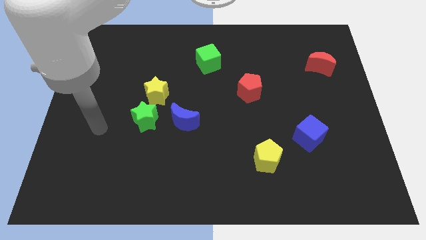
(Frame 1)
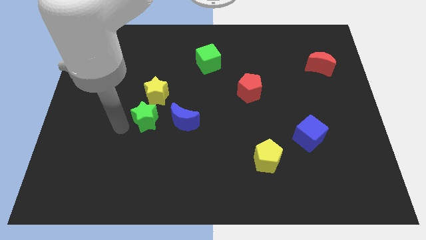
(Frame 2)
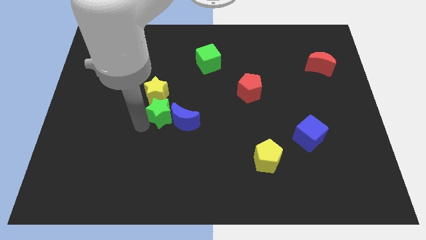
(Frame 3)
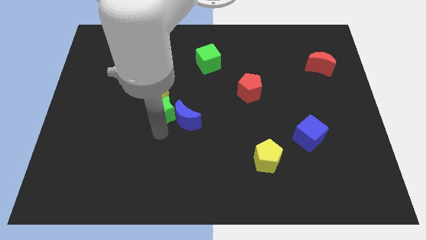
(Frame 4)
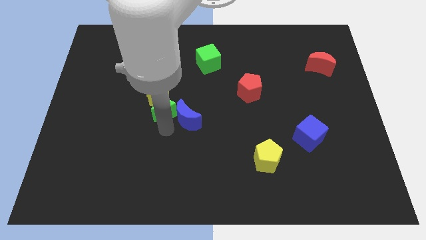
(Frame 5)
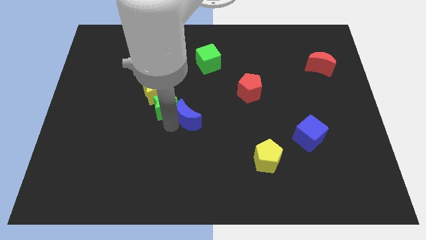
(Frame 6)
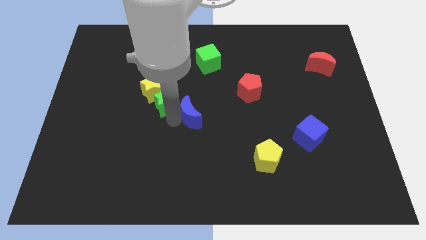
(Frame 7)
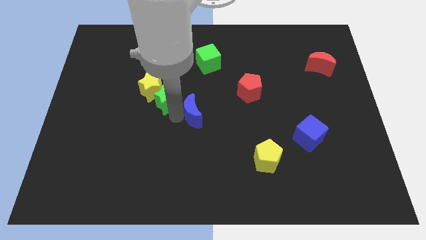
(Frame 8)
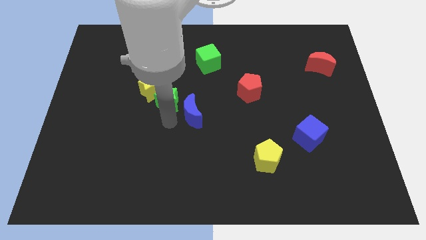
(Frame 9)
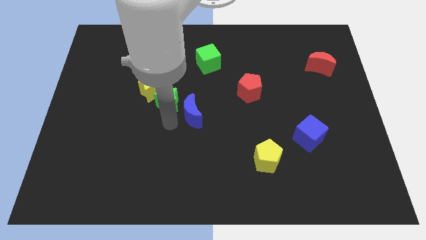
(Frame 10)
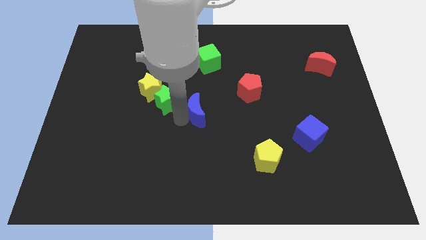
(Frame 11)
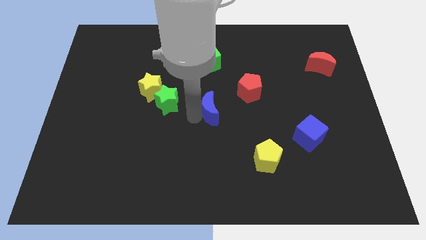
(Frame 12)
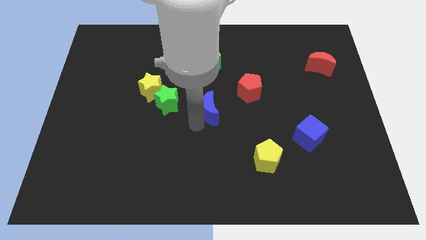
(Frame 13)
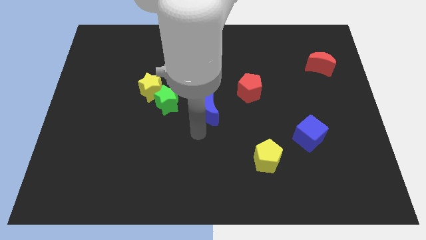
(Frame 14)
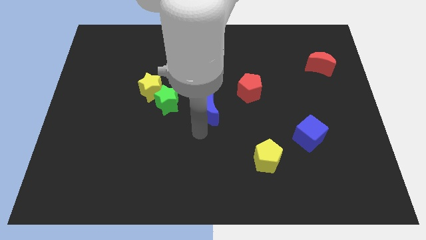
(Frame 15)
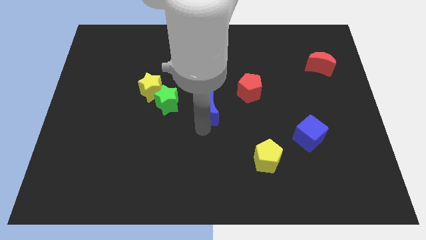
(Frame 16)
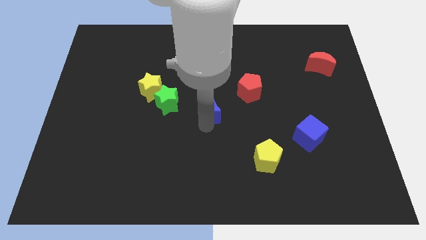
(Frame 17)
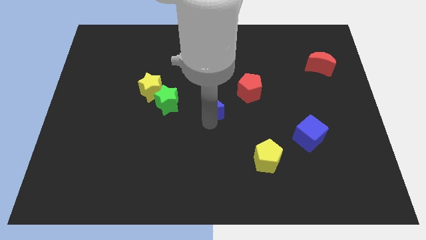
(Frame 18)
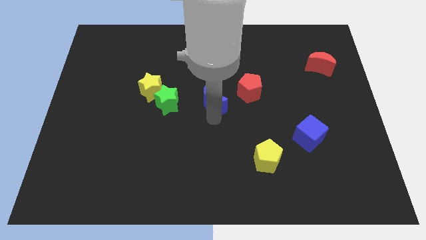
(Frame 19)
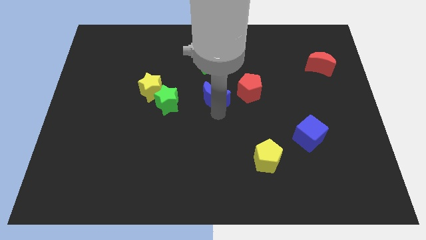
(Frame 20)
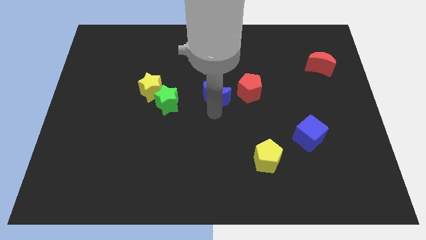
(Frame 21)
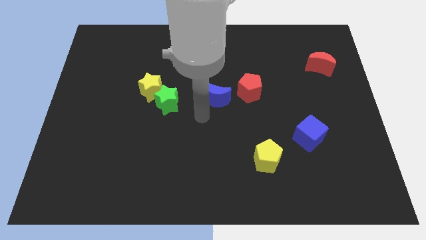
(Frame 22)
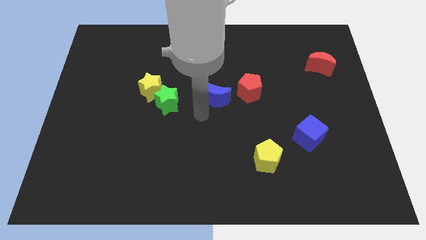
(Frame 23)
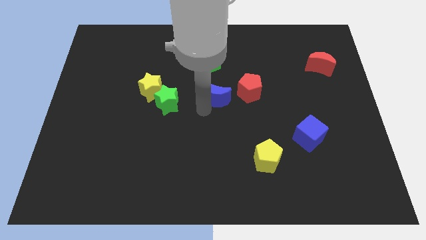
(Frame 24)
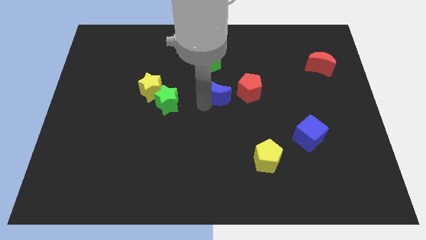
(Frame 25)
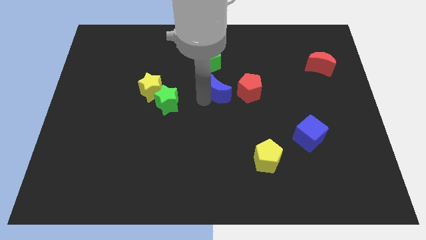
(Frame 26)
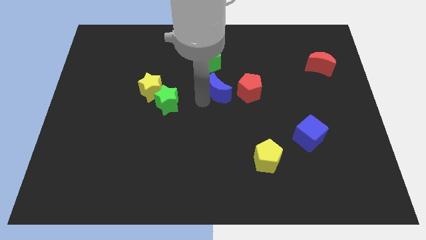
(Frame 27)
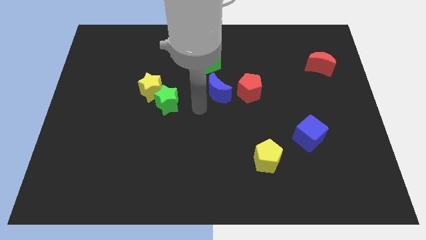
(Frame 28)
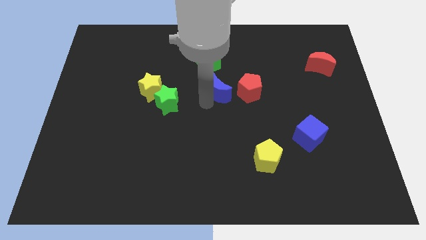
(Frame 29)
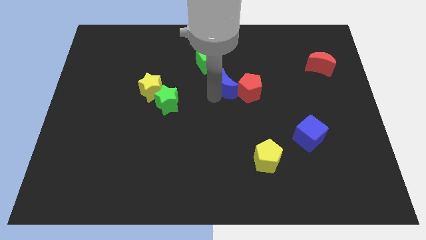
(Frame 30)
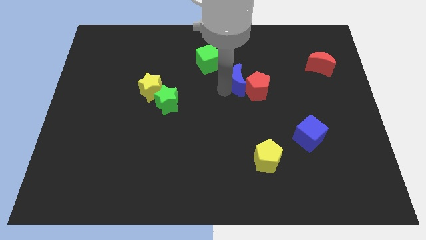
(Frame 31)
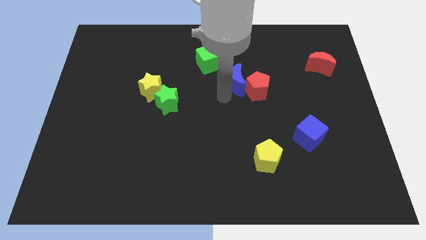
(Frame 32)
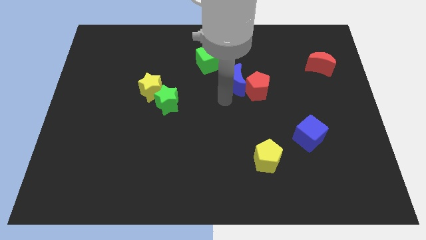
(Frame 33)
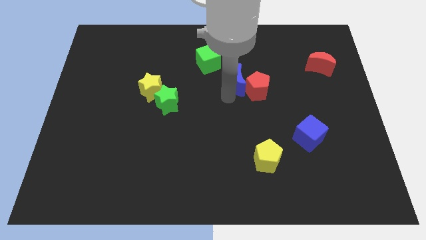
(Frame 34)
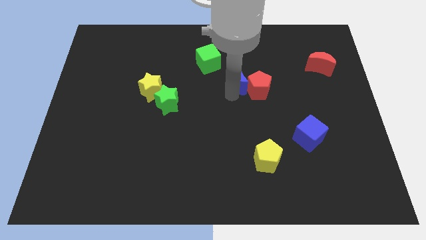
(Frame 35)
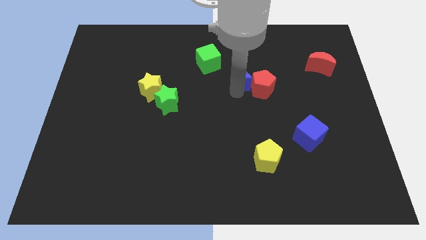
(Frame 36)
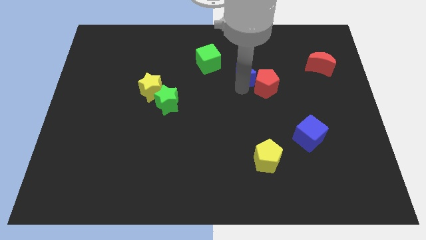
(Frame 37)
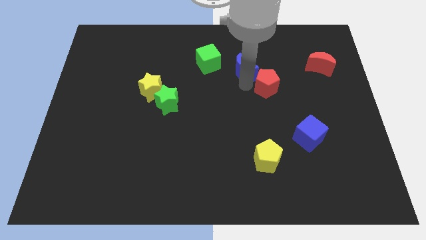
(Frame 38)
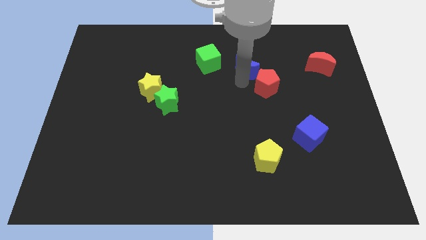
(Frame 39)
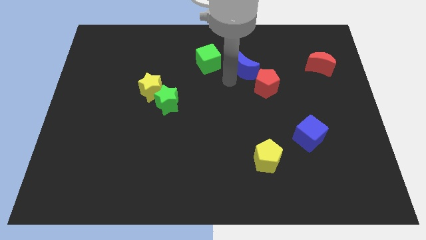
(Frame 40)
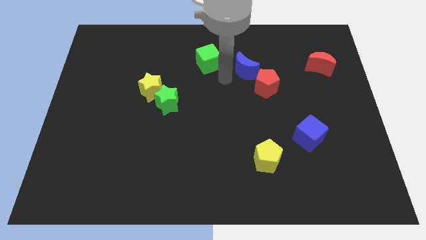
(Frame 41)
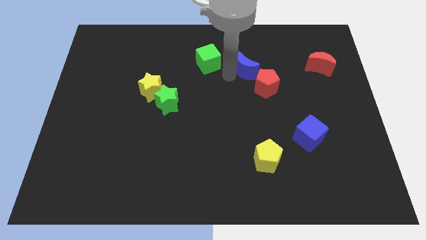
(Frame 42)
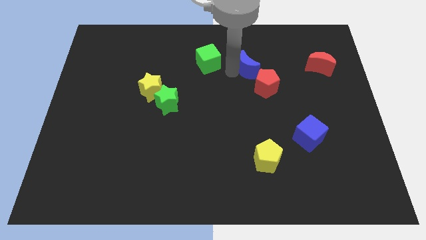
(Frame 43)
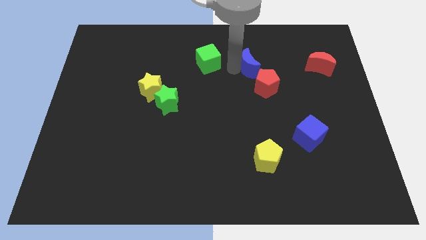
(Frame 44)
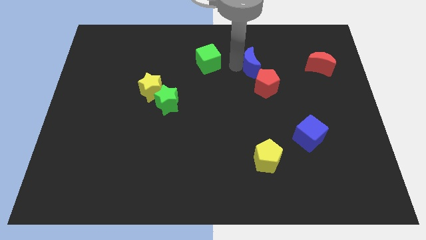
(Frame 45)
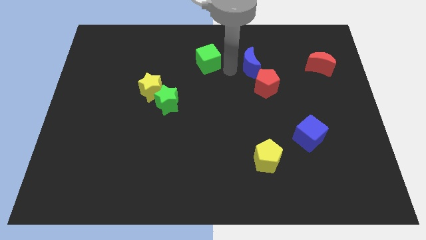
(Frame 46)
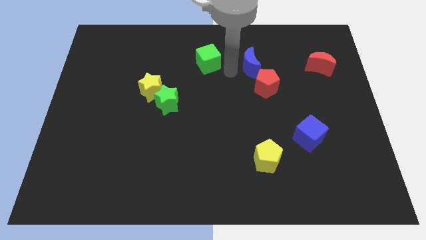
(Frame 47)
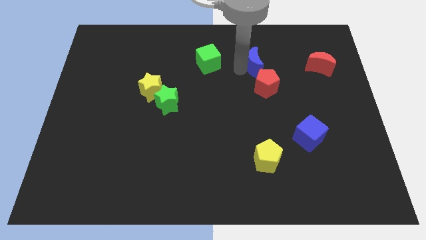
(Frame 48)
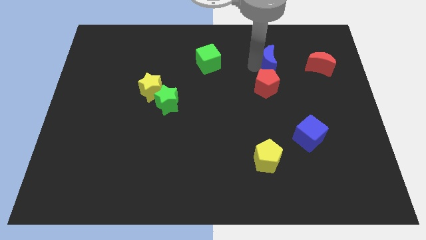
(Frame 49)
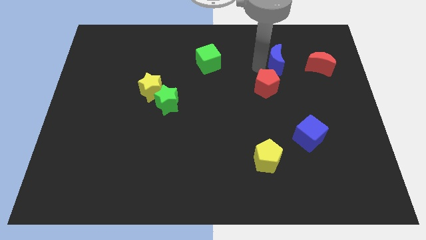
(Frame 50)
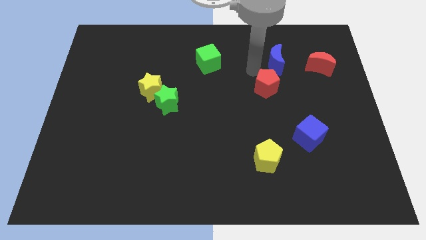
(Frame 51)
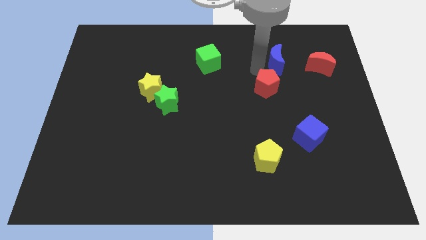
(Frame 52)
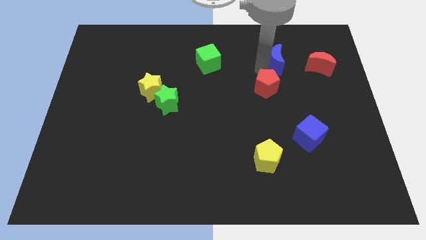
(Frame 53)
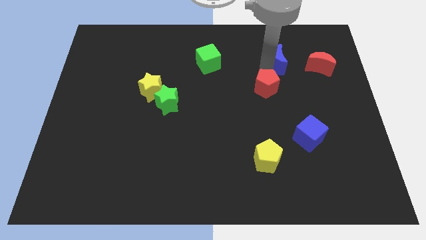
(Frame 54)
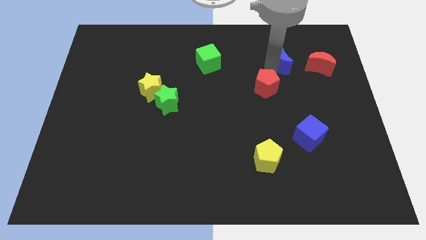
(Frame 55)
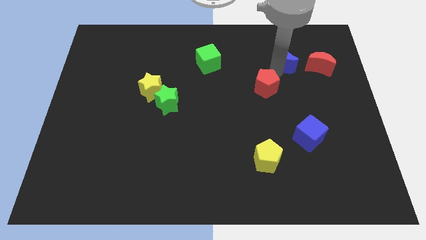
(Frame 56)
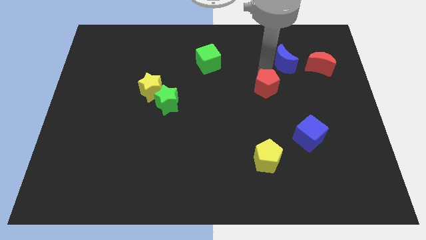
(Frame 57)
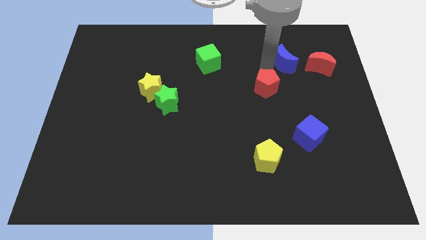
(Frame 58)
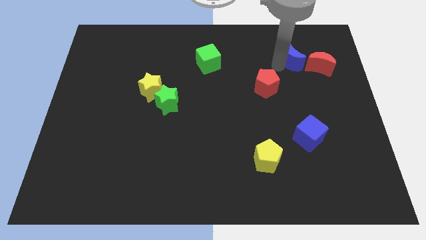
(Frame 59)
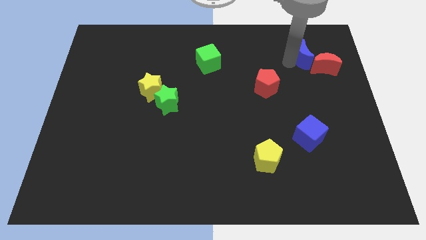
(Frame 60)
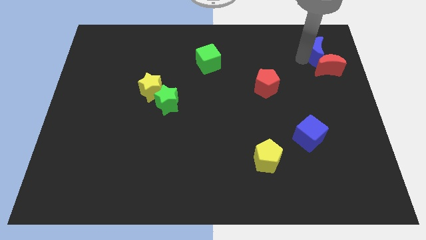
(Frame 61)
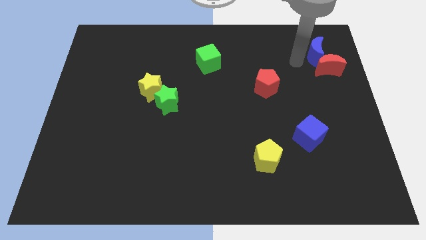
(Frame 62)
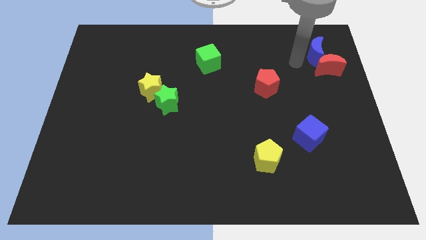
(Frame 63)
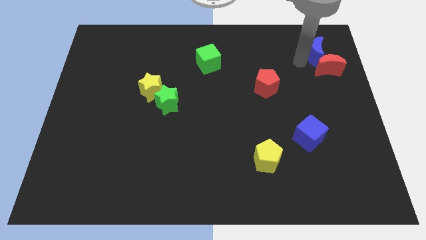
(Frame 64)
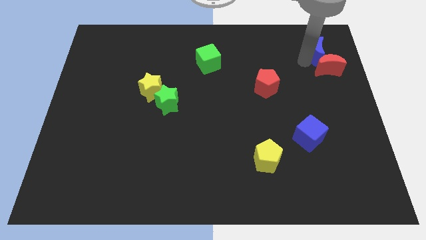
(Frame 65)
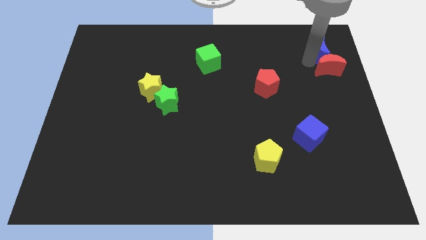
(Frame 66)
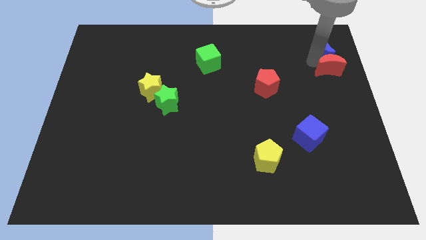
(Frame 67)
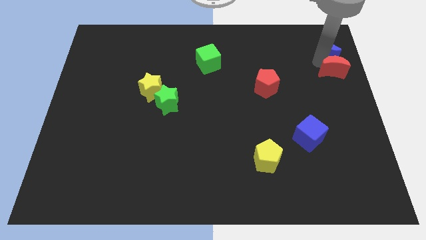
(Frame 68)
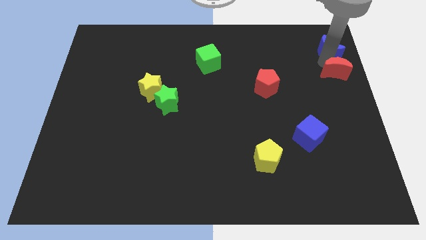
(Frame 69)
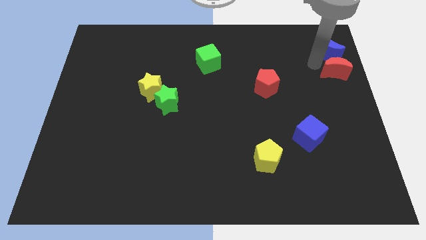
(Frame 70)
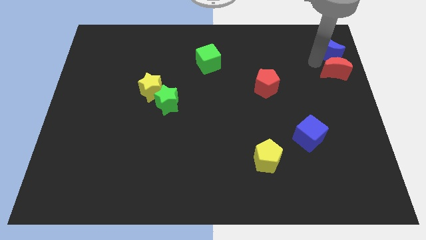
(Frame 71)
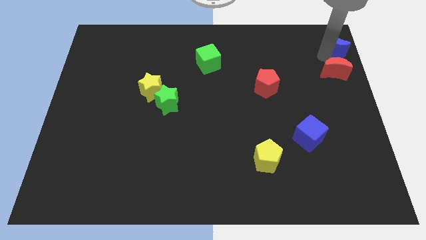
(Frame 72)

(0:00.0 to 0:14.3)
push the blue moon to the top right of the board

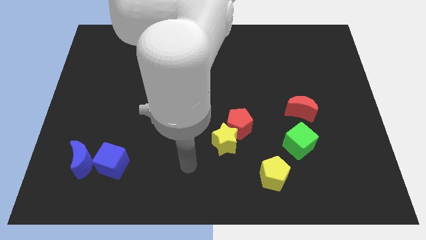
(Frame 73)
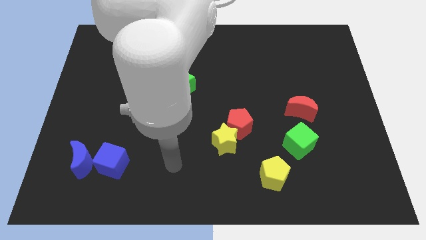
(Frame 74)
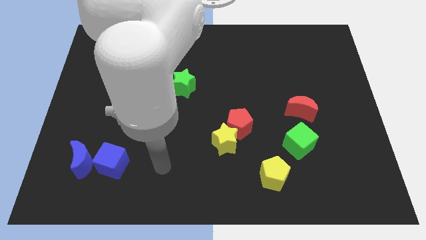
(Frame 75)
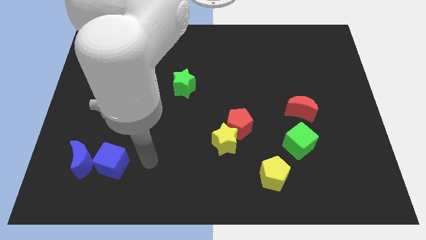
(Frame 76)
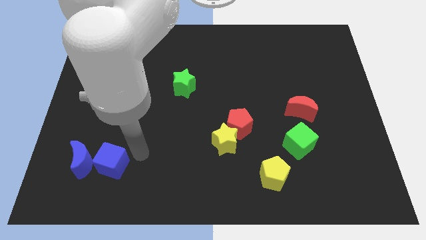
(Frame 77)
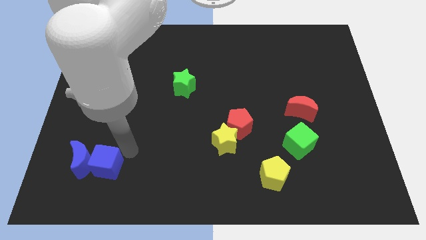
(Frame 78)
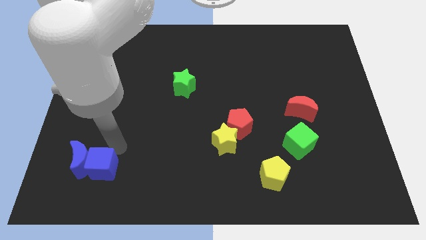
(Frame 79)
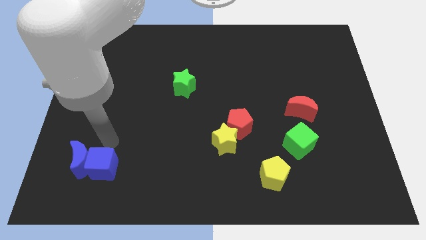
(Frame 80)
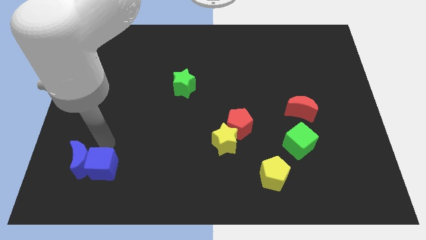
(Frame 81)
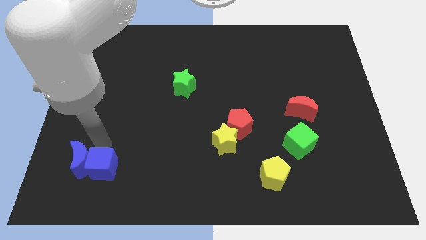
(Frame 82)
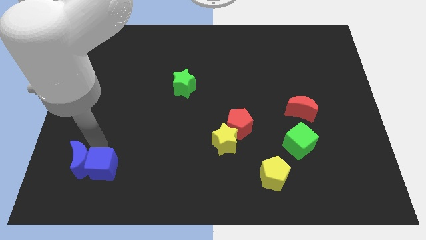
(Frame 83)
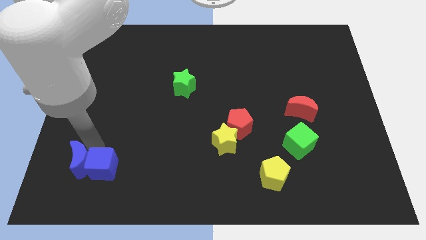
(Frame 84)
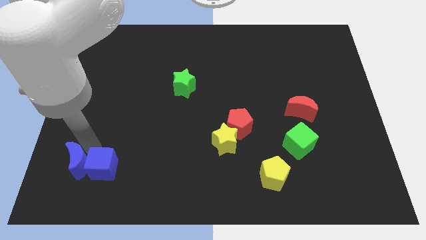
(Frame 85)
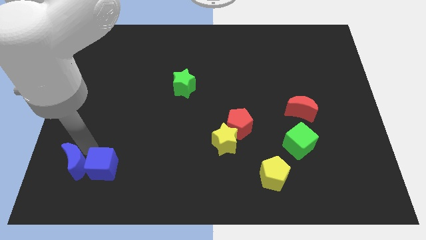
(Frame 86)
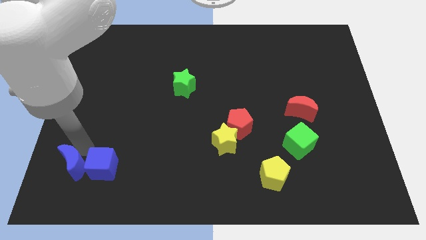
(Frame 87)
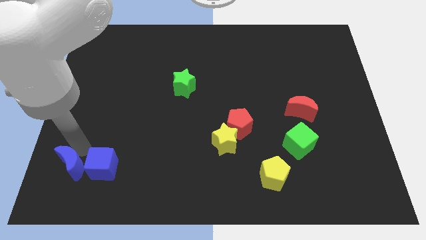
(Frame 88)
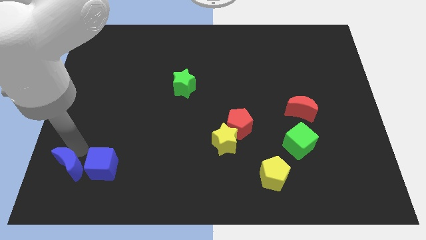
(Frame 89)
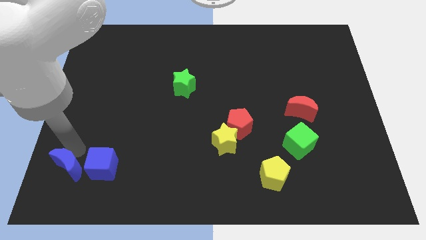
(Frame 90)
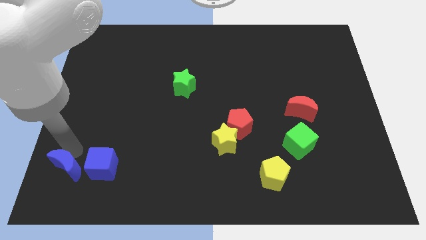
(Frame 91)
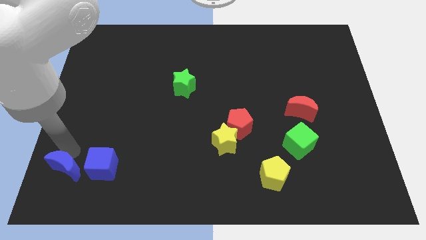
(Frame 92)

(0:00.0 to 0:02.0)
slide the blue moon to the bottom left
